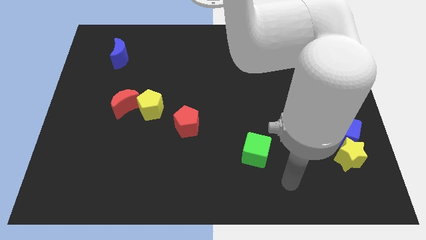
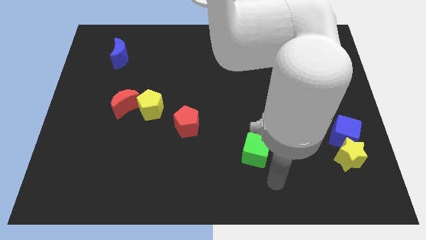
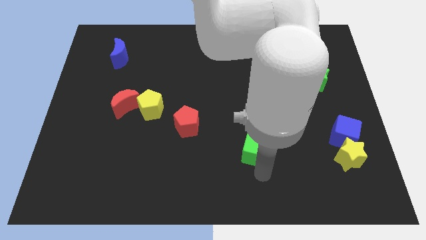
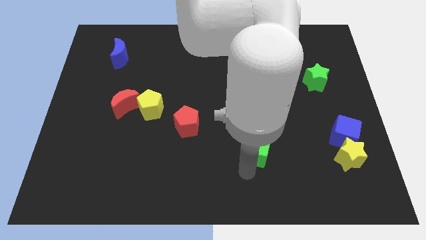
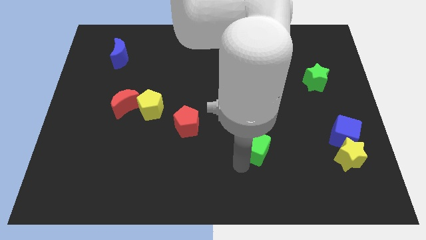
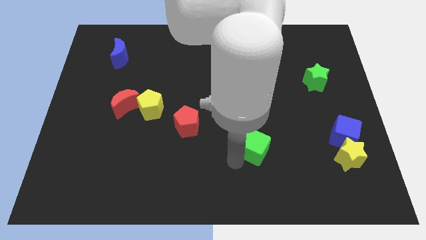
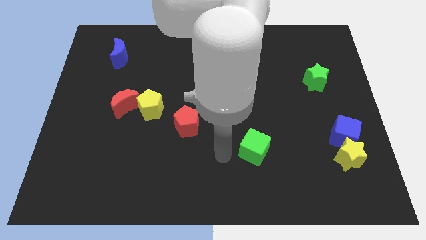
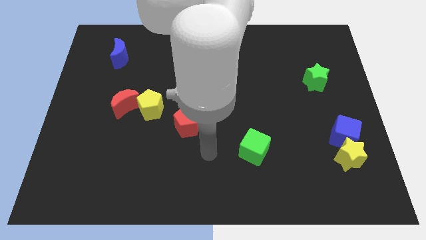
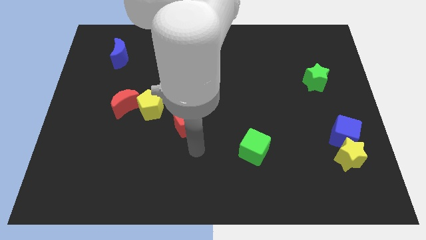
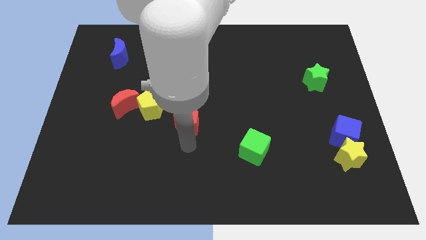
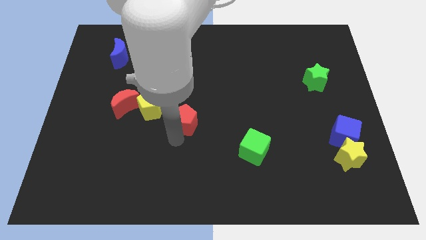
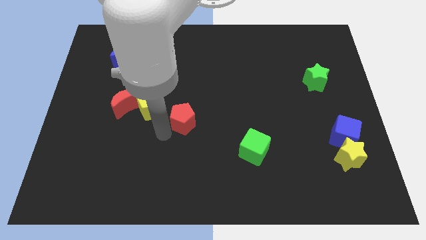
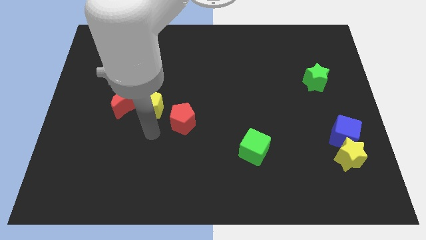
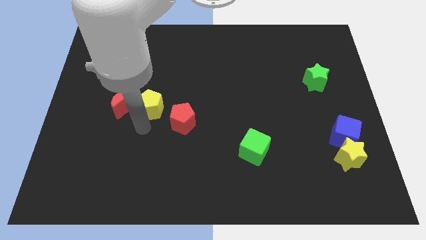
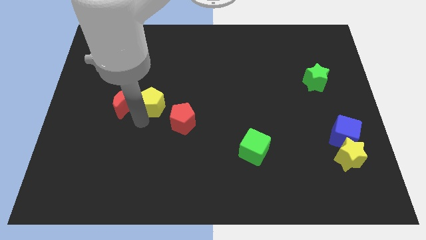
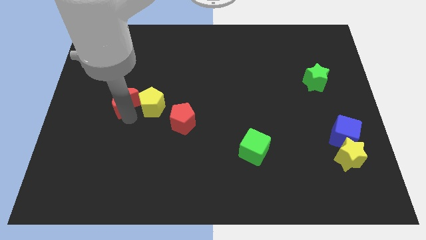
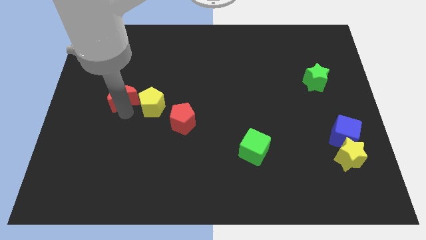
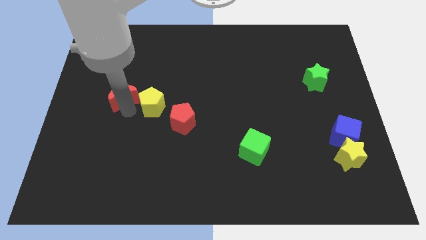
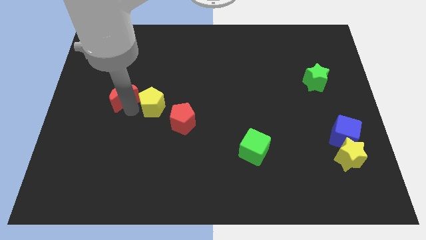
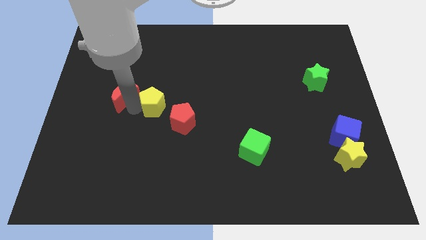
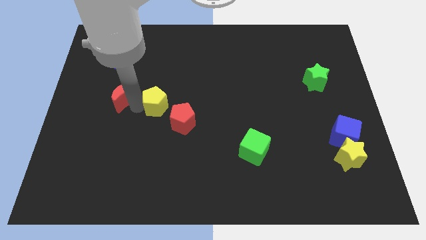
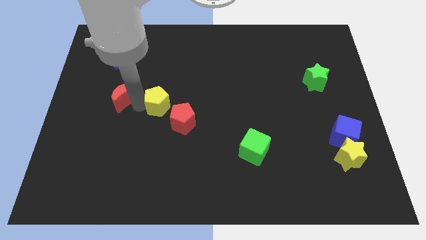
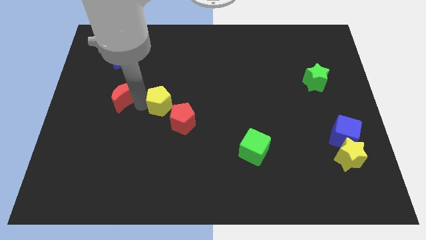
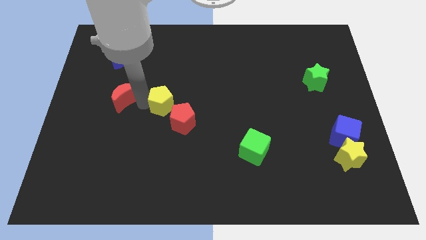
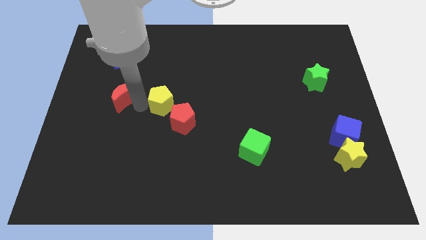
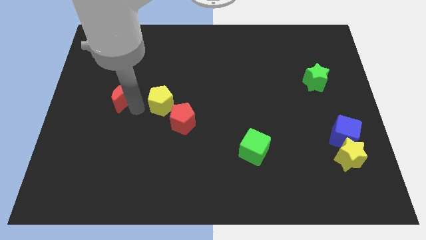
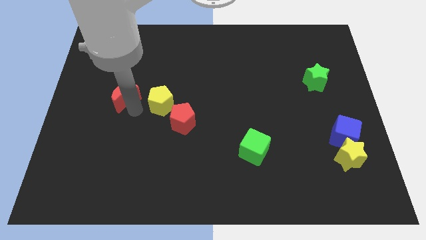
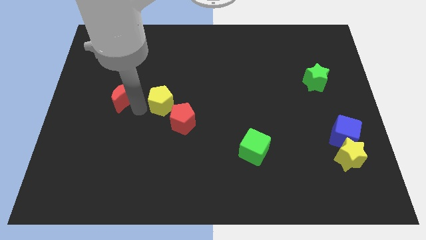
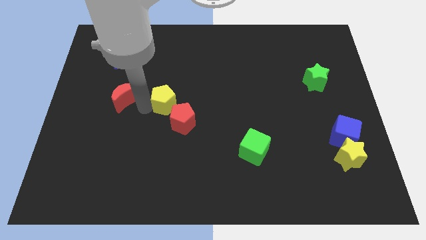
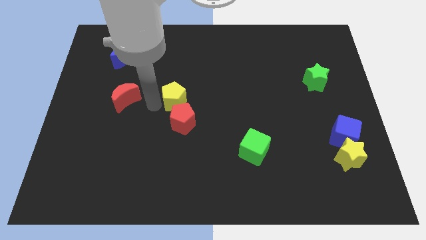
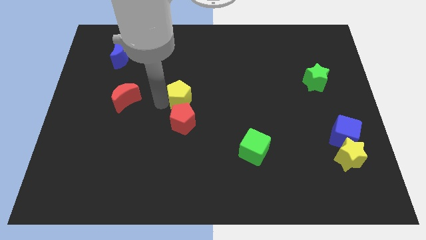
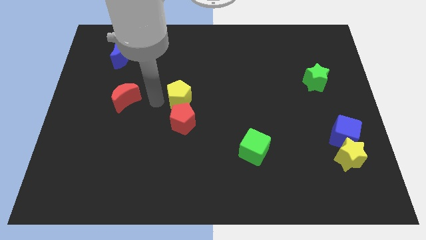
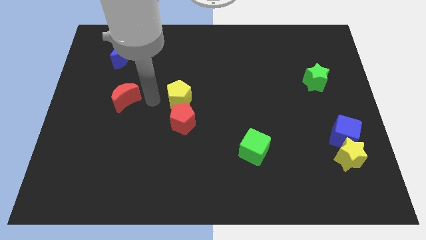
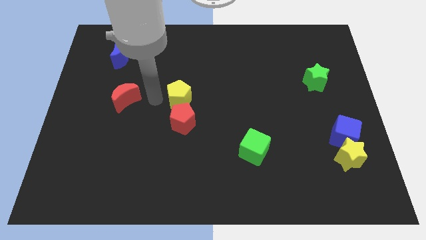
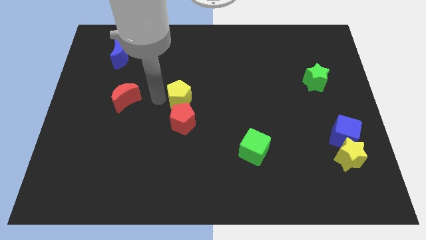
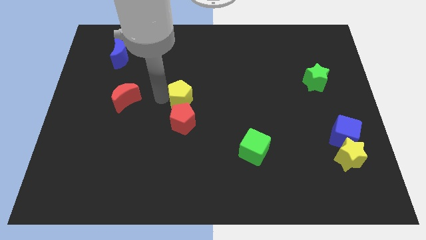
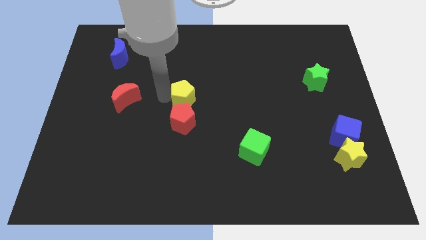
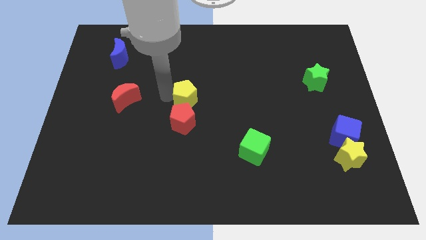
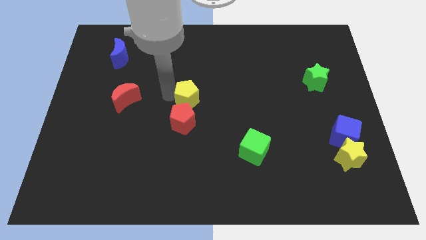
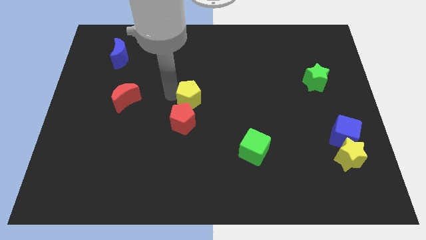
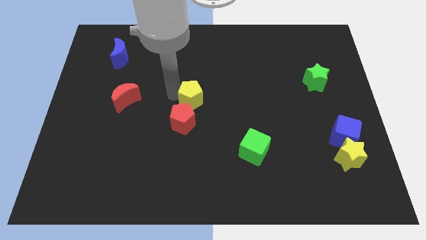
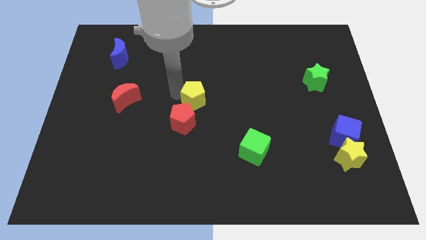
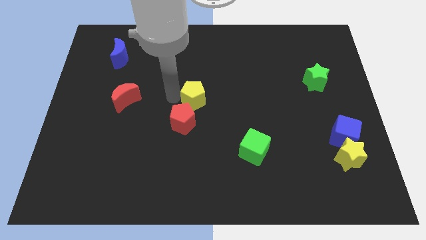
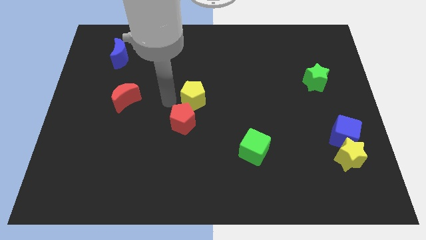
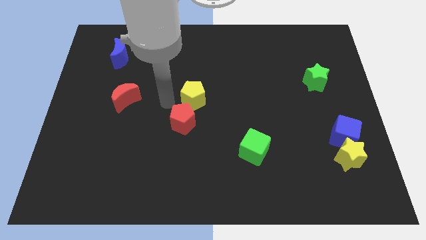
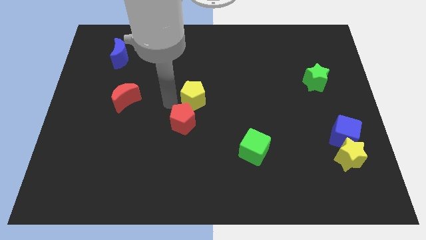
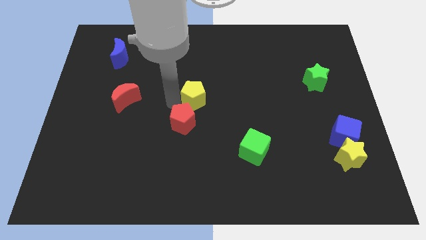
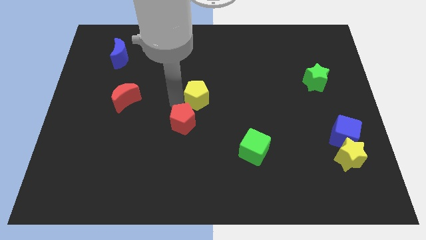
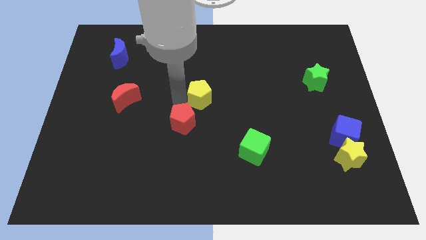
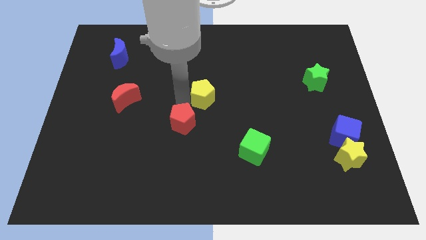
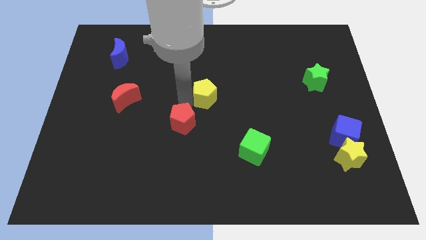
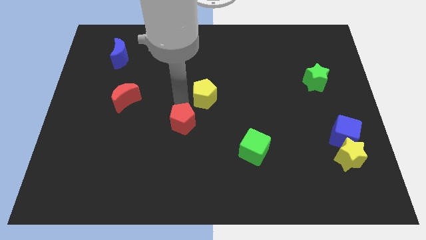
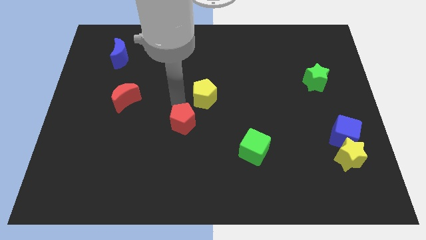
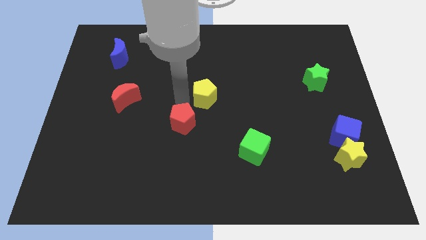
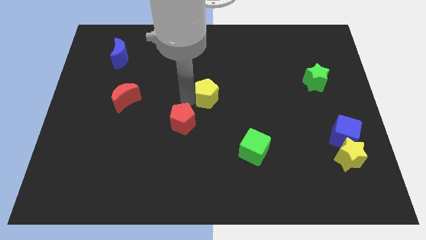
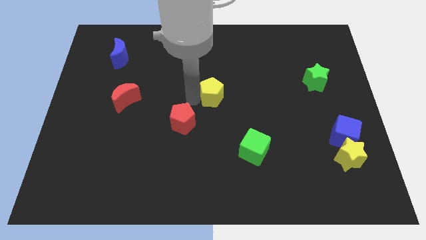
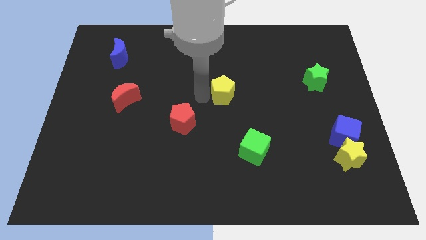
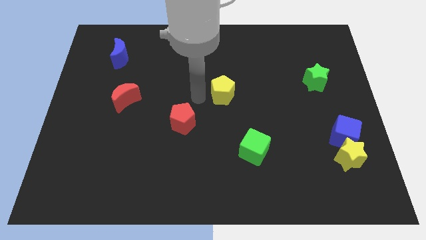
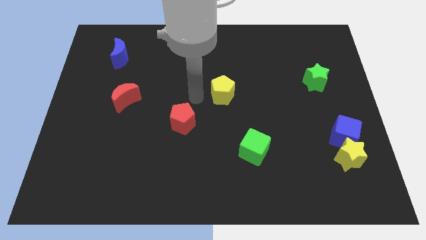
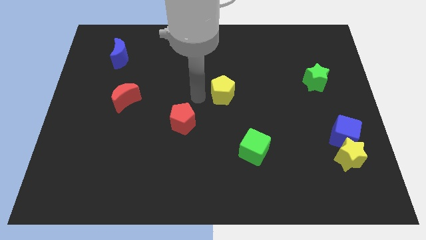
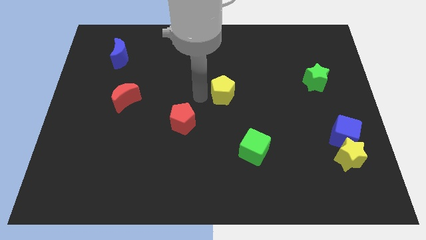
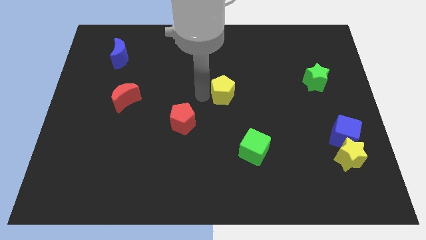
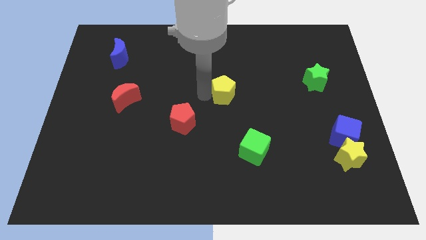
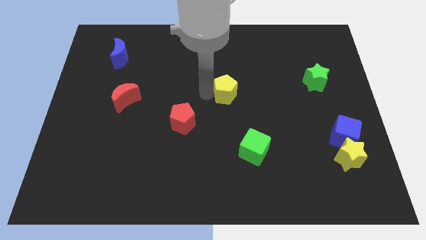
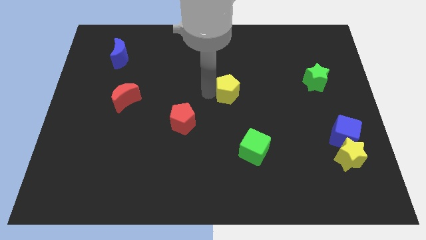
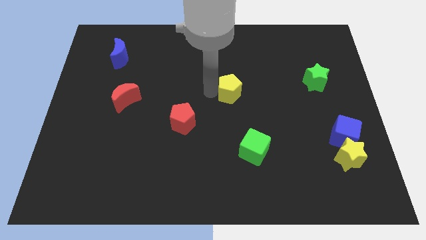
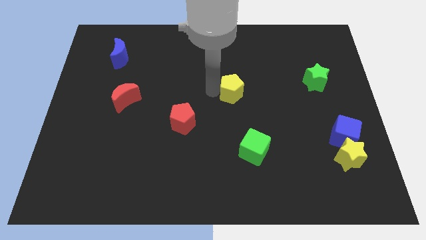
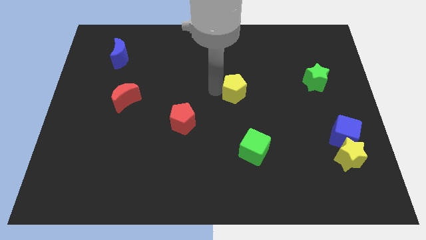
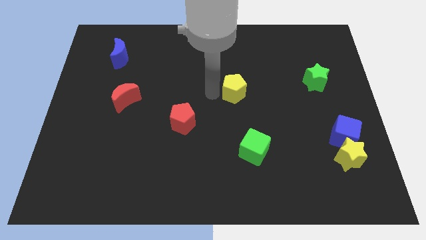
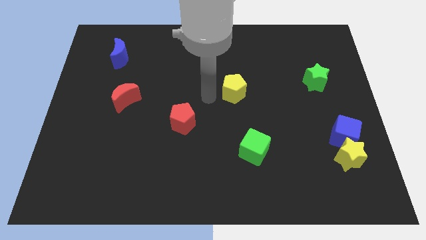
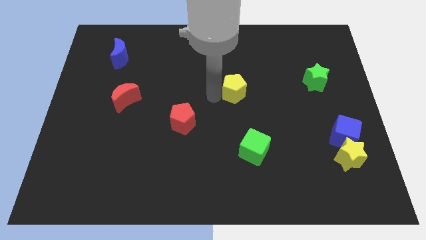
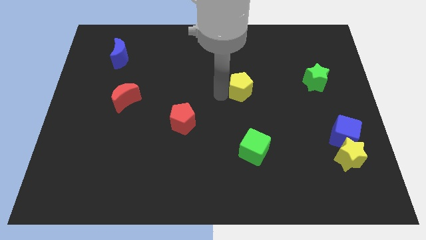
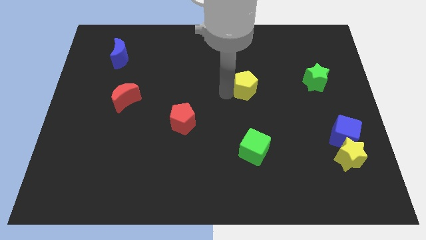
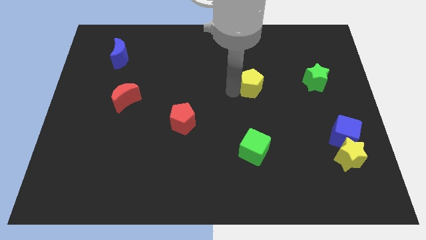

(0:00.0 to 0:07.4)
move the yellow pentagon left of the green star

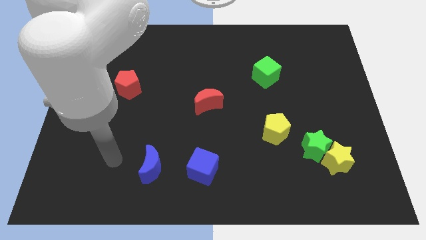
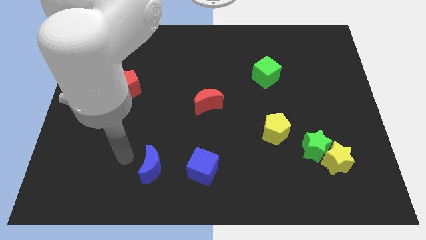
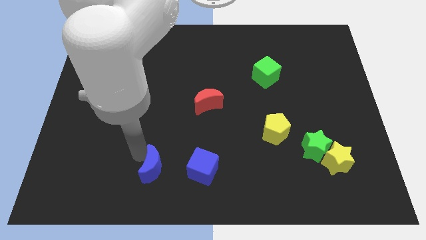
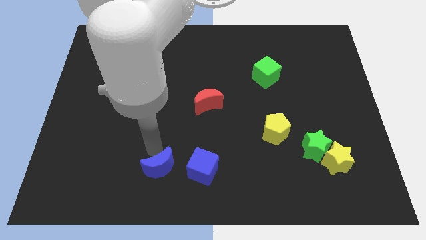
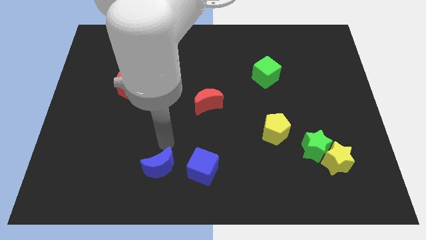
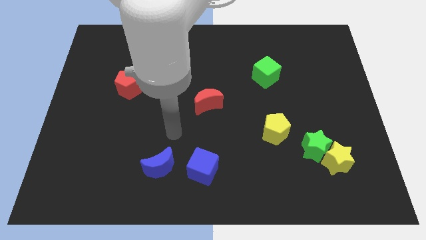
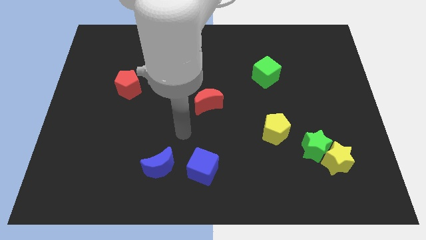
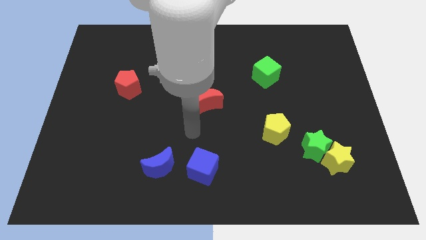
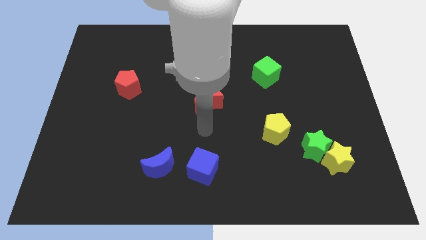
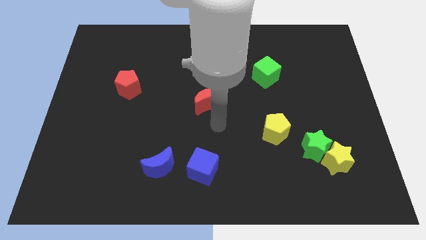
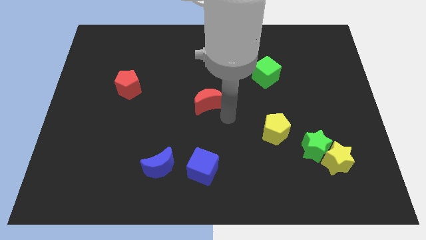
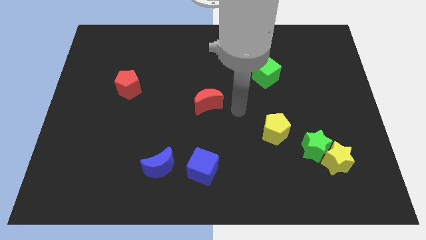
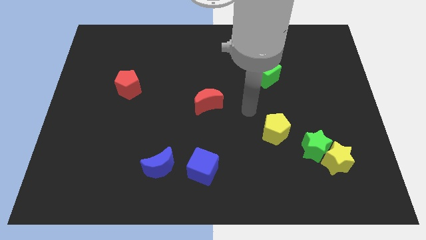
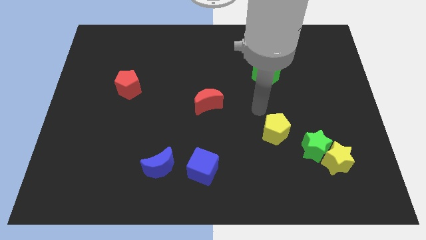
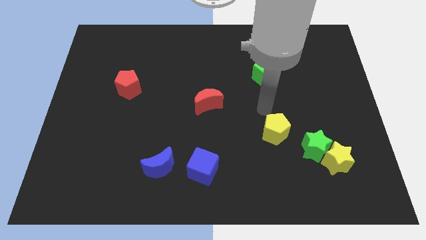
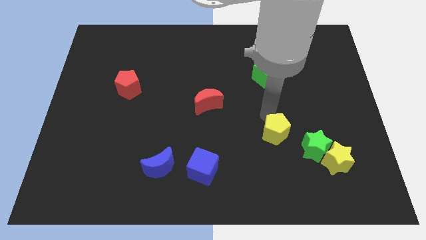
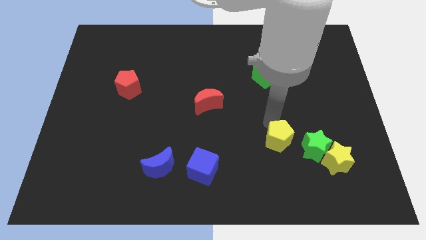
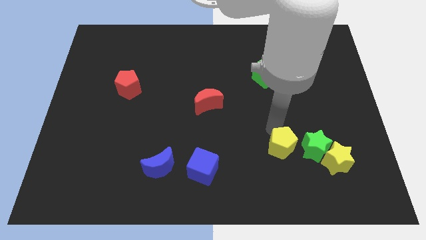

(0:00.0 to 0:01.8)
move the yellow pentagon to the left side of the yellow star
